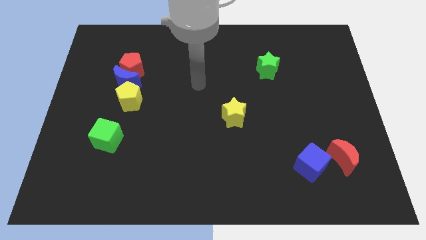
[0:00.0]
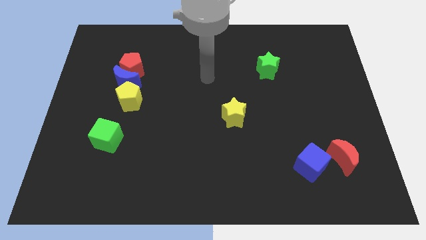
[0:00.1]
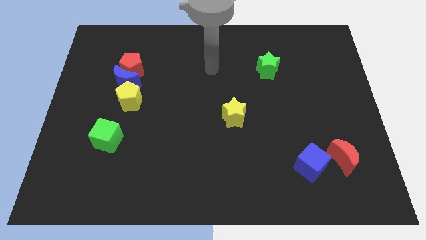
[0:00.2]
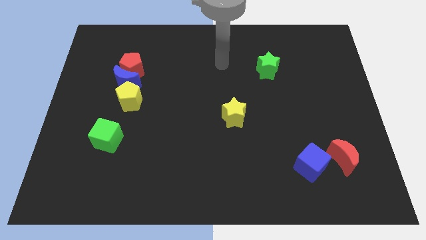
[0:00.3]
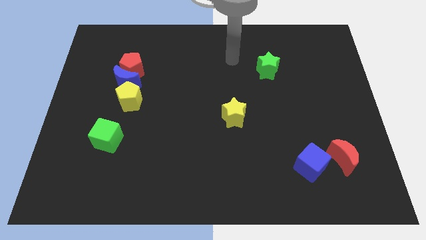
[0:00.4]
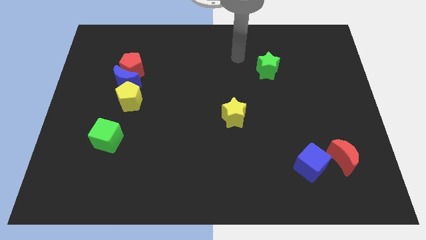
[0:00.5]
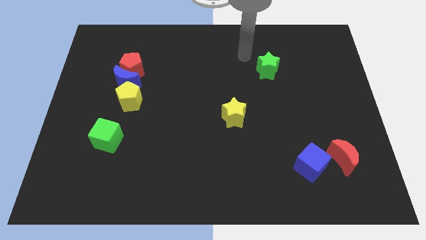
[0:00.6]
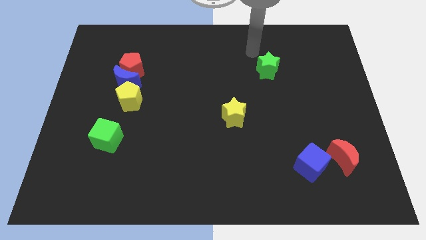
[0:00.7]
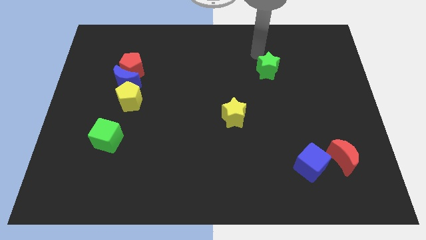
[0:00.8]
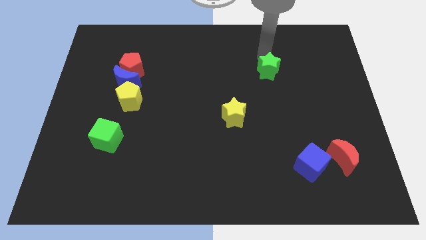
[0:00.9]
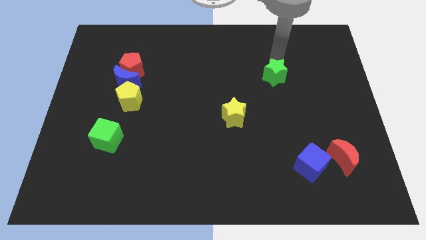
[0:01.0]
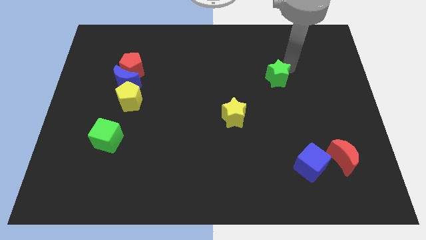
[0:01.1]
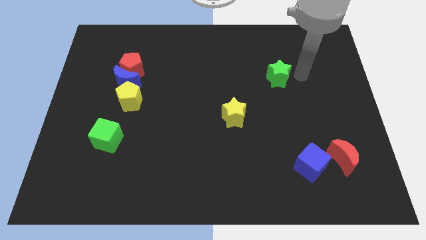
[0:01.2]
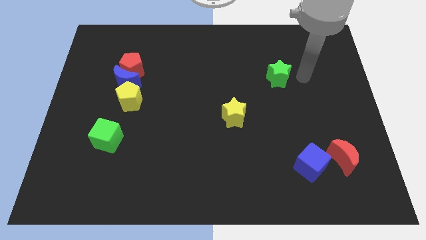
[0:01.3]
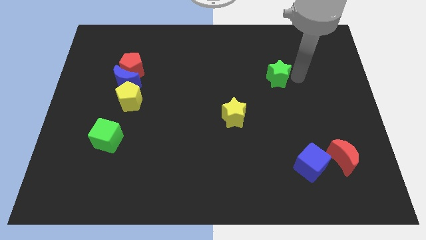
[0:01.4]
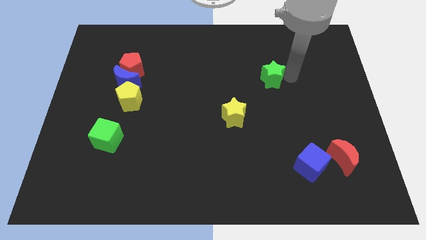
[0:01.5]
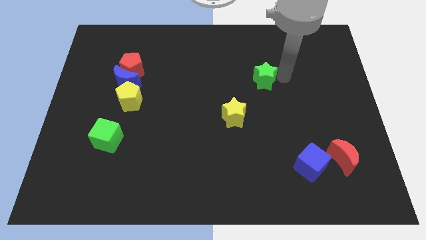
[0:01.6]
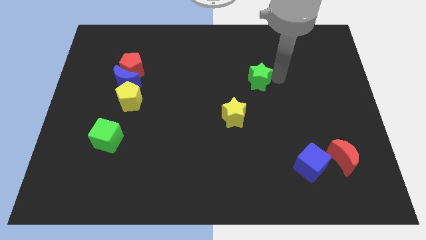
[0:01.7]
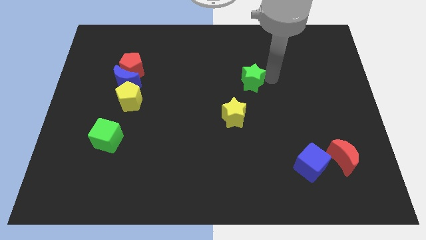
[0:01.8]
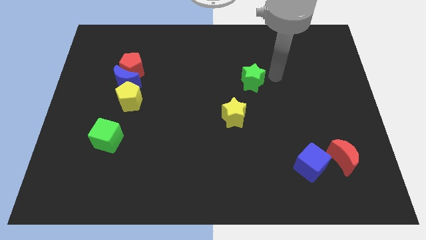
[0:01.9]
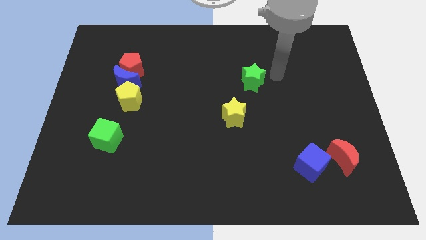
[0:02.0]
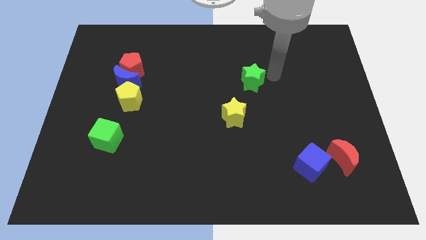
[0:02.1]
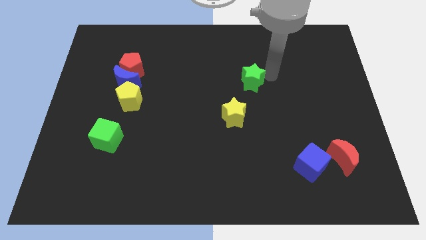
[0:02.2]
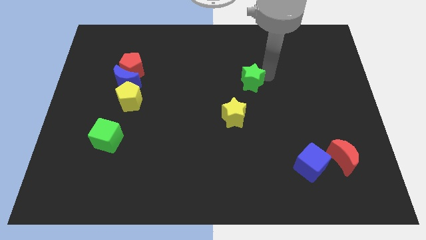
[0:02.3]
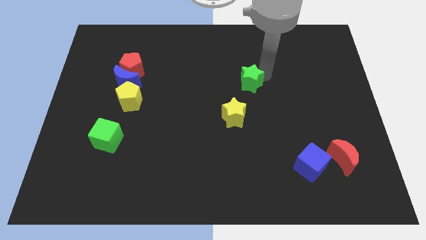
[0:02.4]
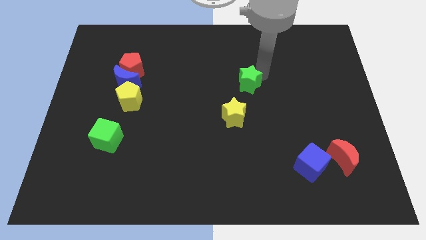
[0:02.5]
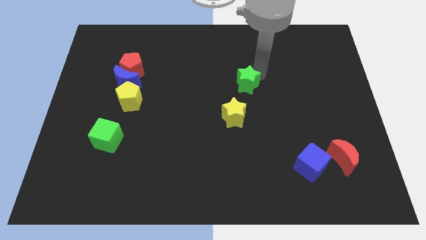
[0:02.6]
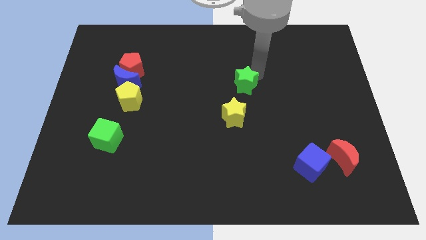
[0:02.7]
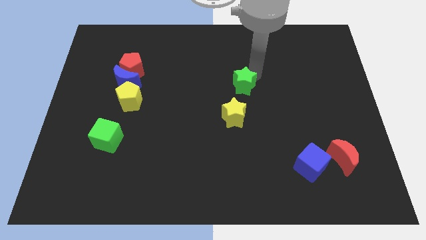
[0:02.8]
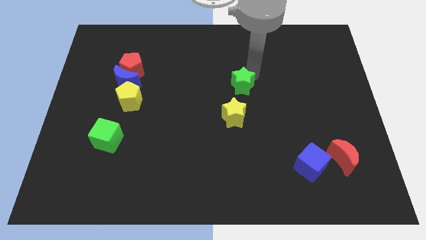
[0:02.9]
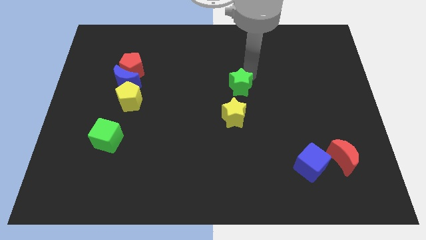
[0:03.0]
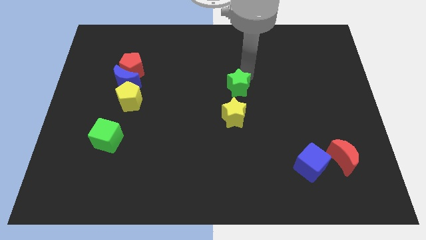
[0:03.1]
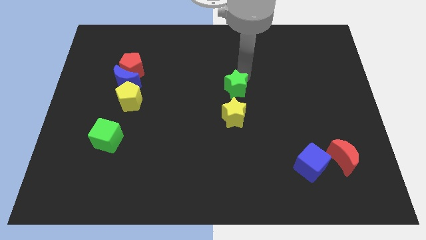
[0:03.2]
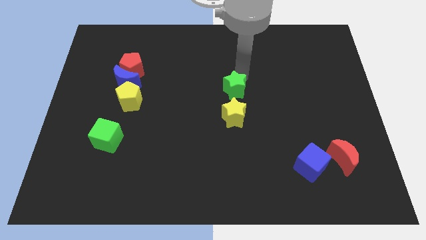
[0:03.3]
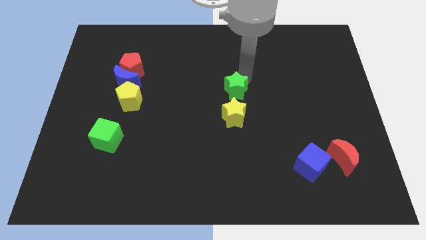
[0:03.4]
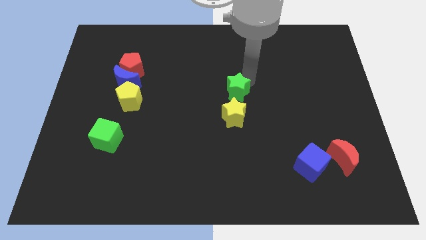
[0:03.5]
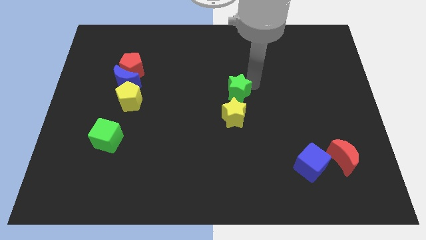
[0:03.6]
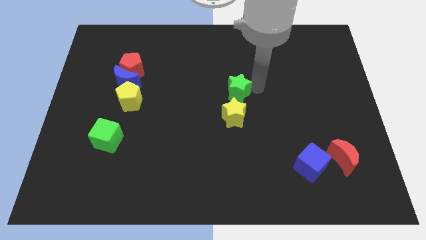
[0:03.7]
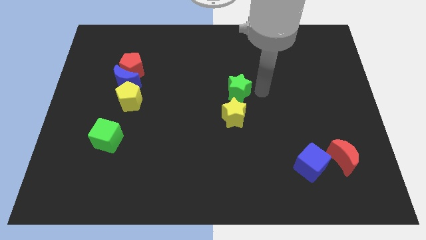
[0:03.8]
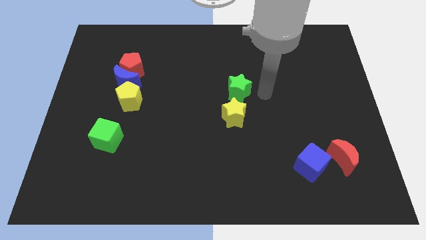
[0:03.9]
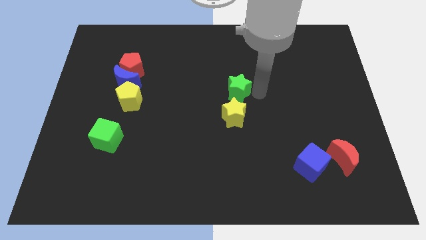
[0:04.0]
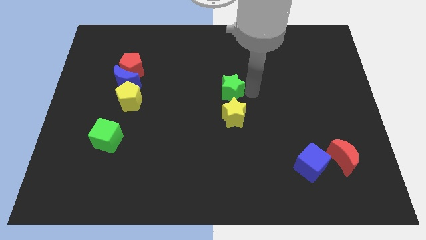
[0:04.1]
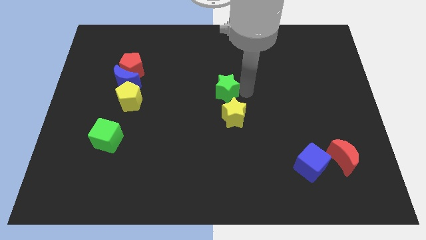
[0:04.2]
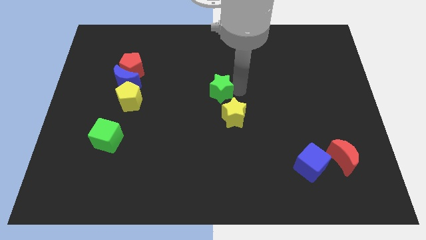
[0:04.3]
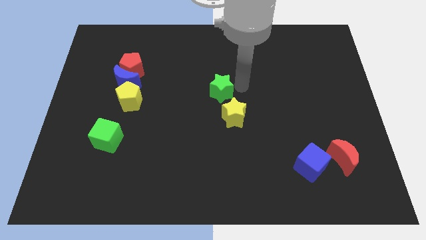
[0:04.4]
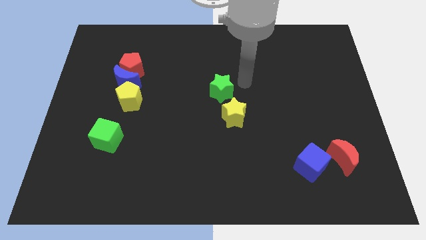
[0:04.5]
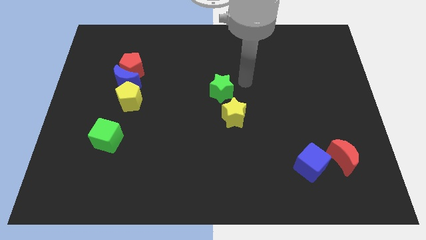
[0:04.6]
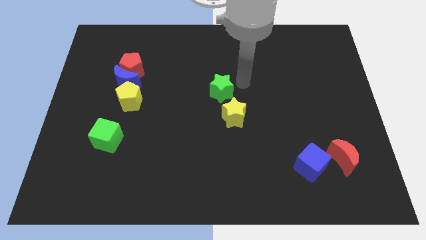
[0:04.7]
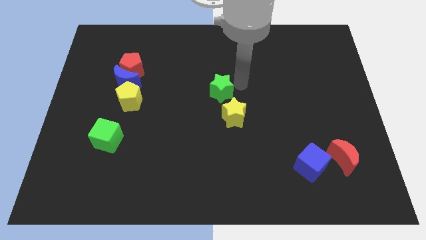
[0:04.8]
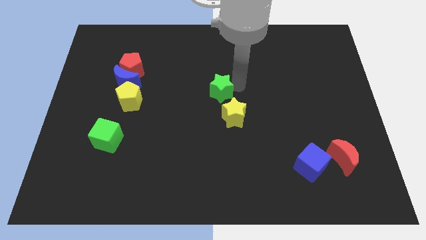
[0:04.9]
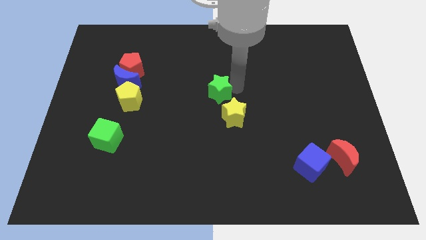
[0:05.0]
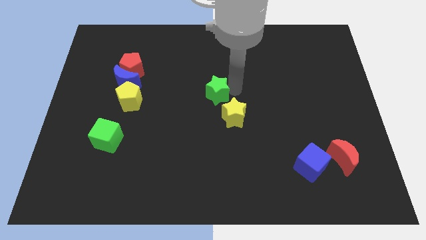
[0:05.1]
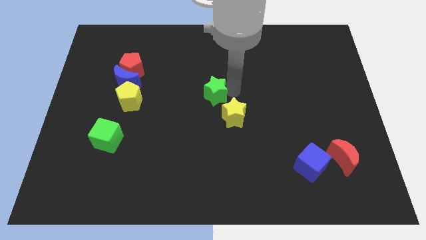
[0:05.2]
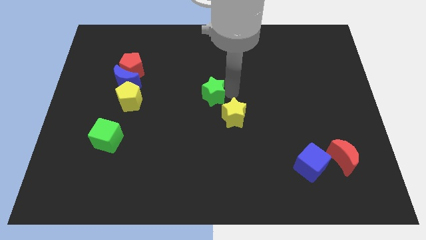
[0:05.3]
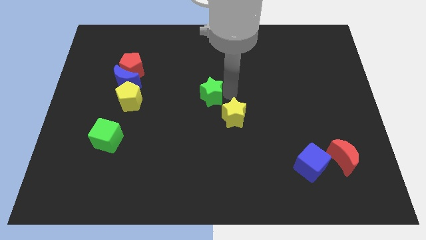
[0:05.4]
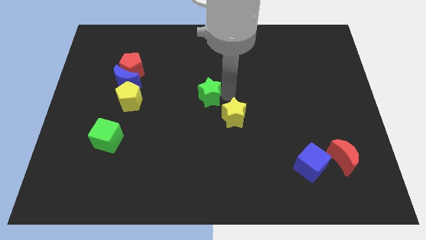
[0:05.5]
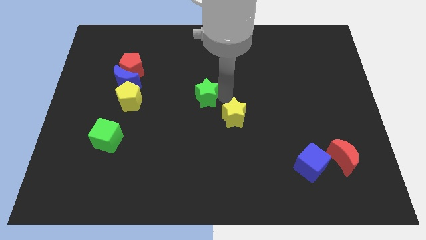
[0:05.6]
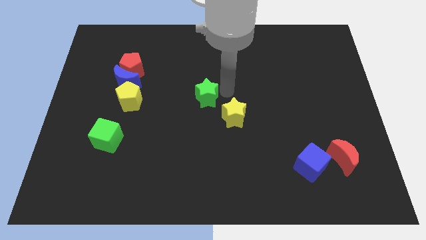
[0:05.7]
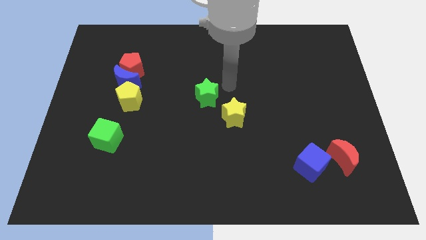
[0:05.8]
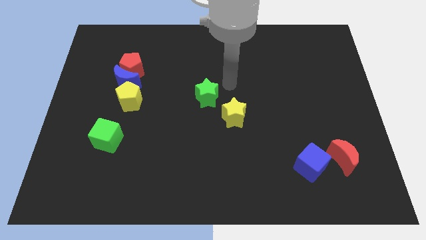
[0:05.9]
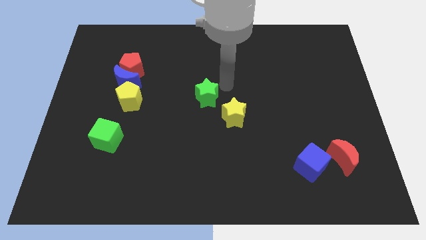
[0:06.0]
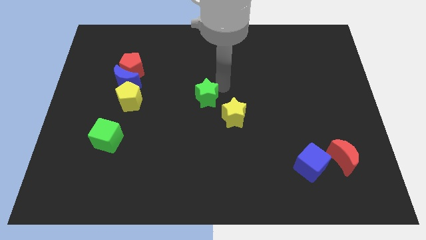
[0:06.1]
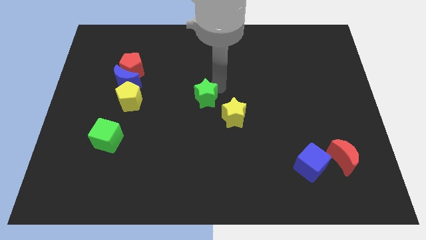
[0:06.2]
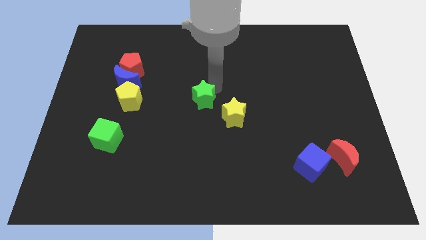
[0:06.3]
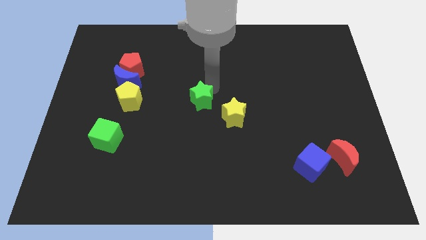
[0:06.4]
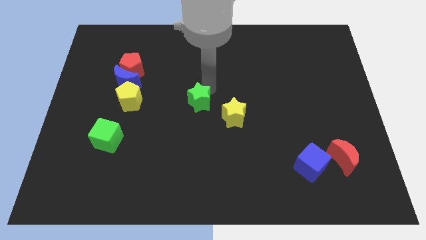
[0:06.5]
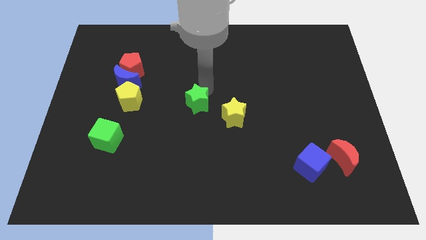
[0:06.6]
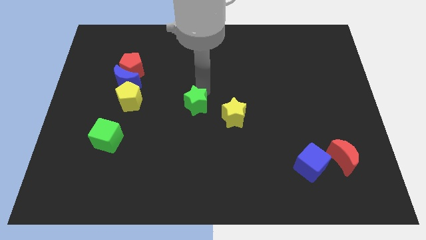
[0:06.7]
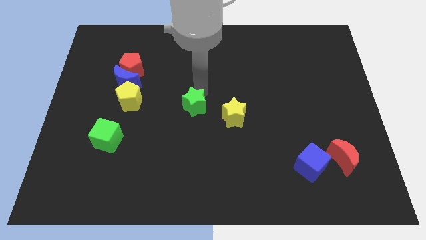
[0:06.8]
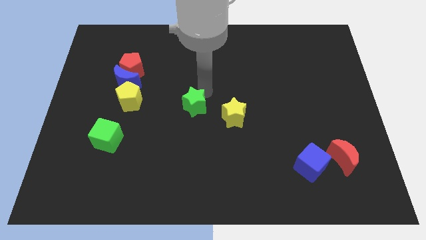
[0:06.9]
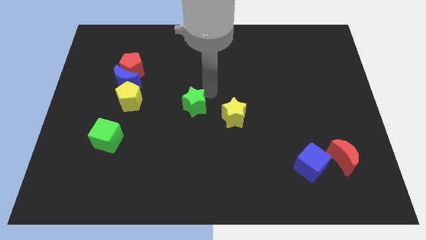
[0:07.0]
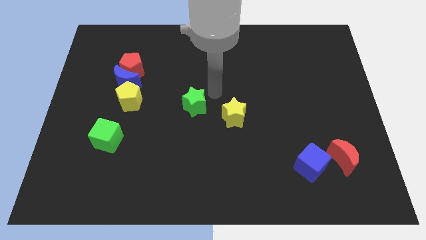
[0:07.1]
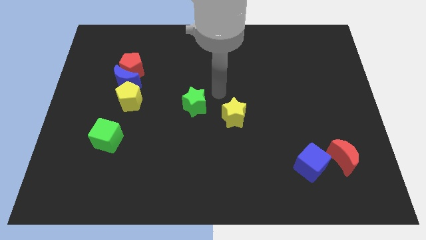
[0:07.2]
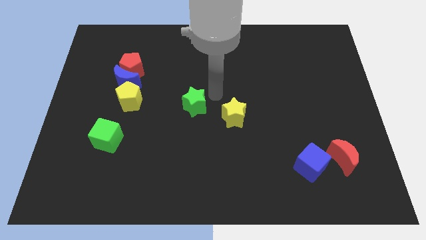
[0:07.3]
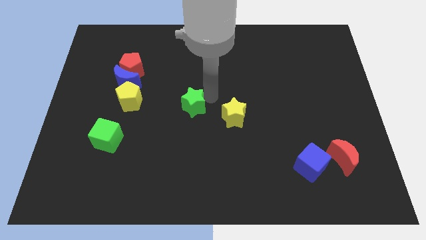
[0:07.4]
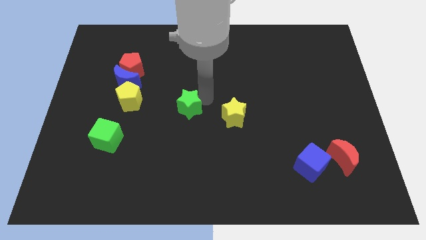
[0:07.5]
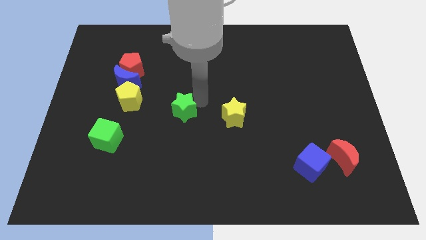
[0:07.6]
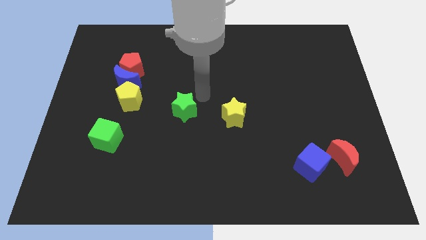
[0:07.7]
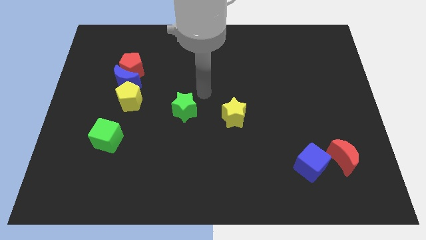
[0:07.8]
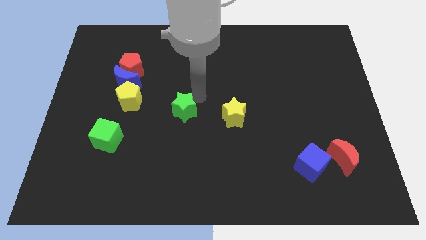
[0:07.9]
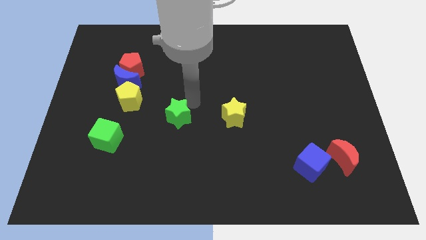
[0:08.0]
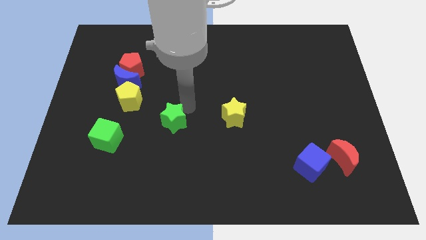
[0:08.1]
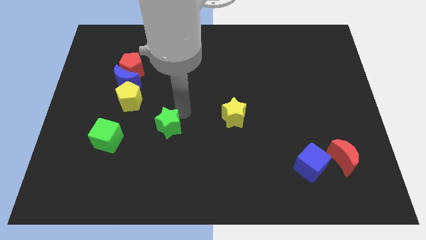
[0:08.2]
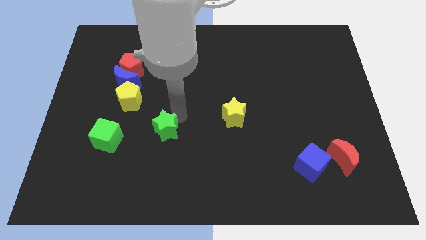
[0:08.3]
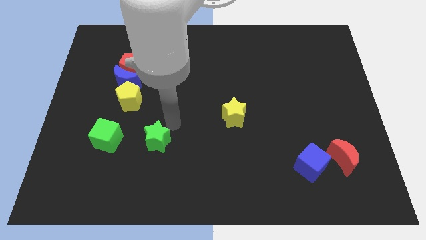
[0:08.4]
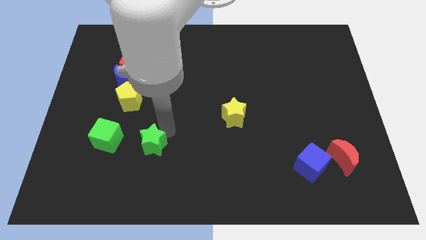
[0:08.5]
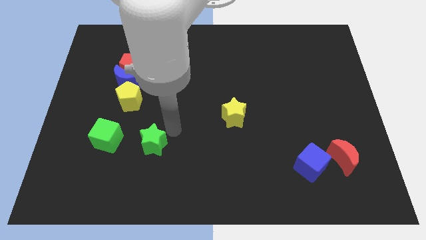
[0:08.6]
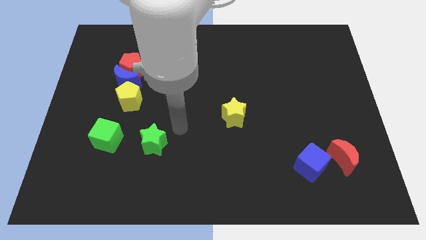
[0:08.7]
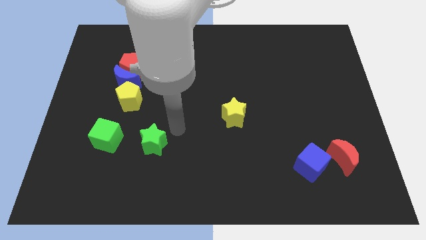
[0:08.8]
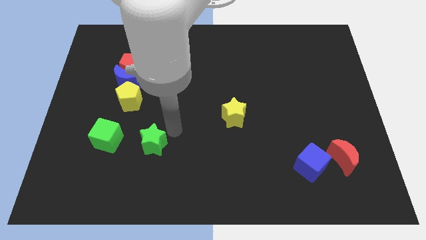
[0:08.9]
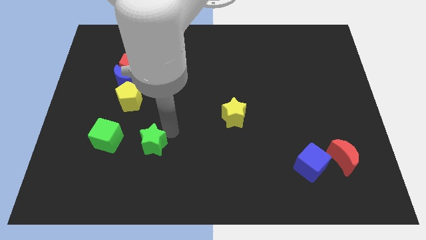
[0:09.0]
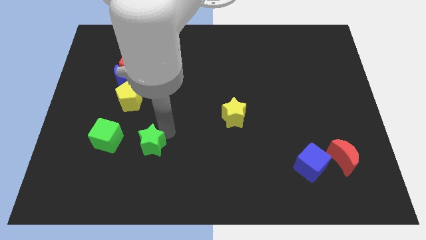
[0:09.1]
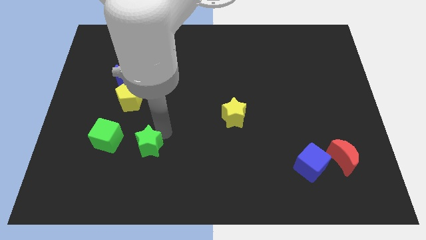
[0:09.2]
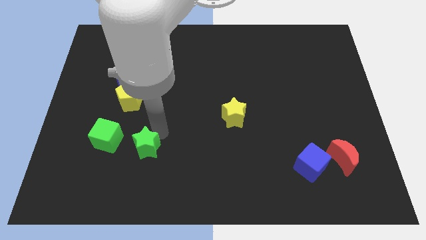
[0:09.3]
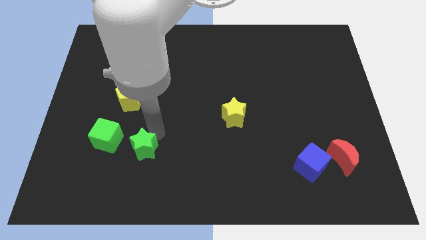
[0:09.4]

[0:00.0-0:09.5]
put the green star to the bottom right side of the green cube
